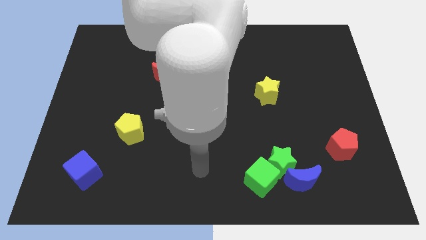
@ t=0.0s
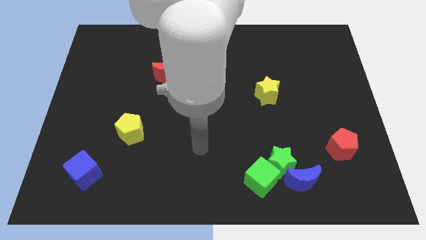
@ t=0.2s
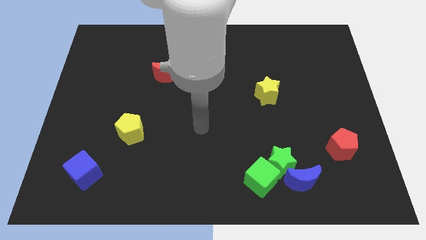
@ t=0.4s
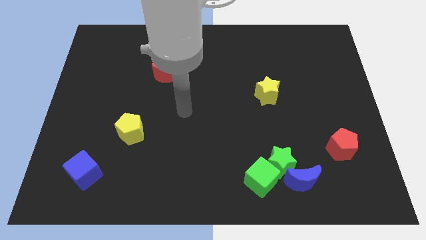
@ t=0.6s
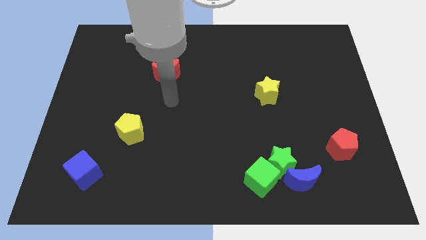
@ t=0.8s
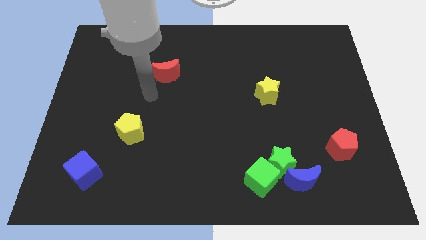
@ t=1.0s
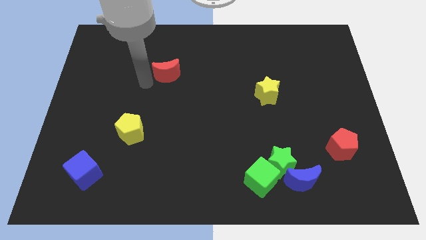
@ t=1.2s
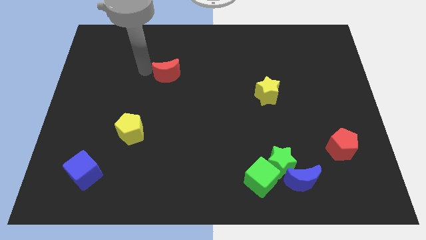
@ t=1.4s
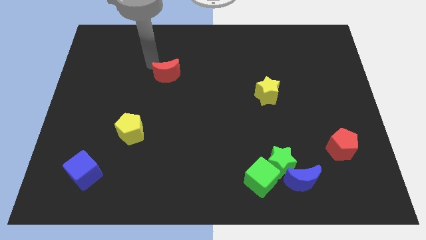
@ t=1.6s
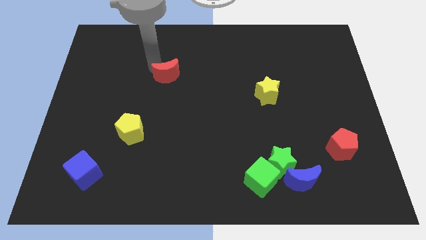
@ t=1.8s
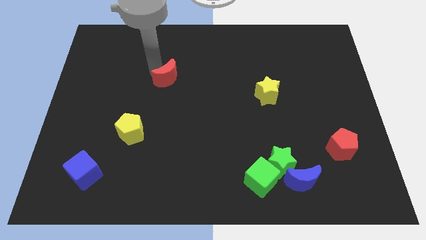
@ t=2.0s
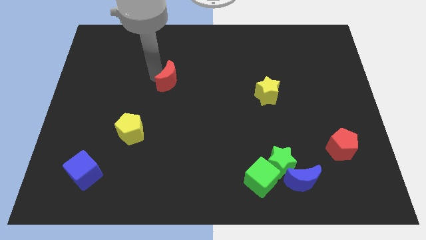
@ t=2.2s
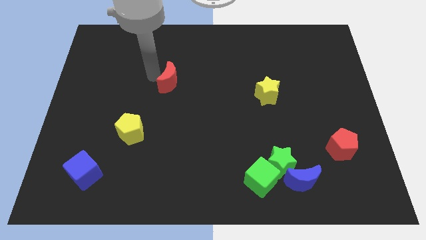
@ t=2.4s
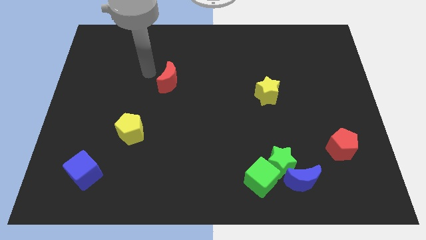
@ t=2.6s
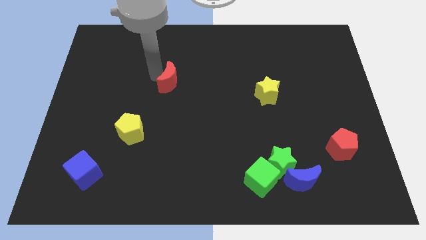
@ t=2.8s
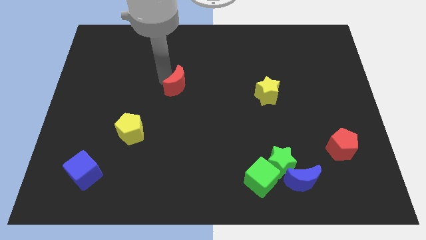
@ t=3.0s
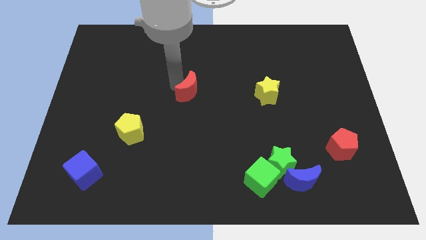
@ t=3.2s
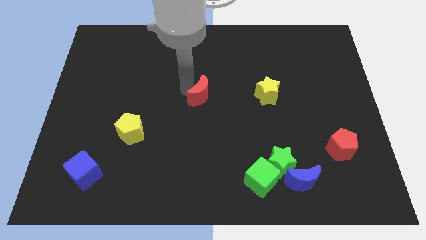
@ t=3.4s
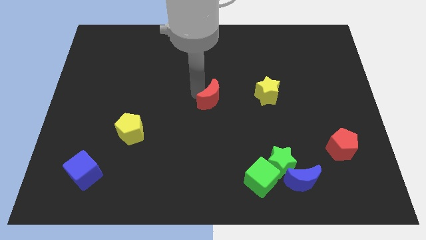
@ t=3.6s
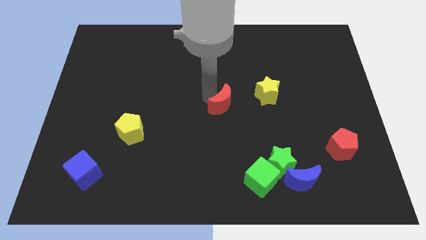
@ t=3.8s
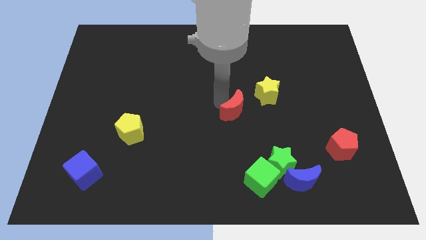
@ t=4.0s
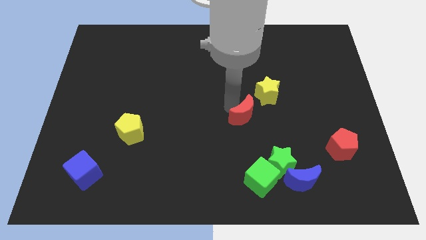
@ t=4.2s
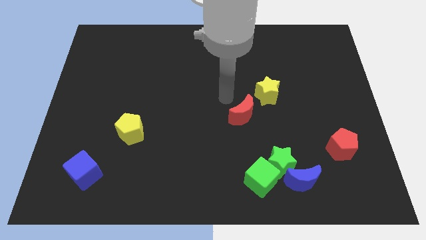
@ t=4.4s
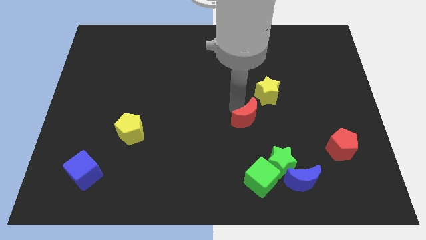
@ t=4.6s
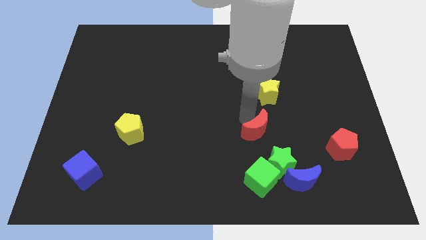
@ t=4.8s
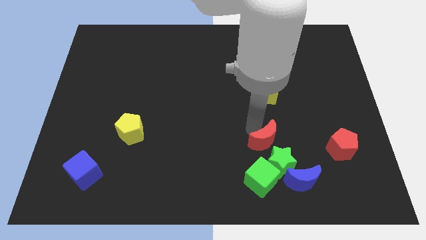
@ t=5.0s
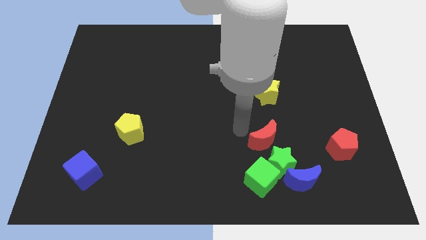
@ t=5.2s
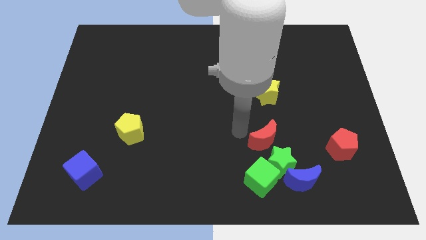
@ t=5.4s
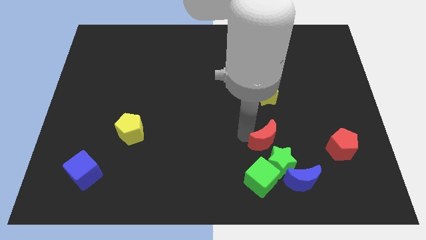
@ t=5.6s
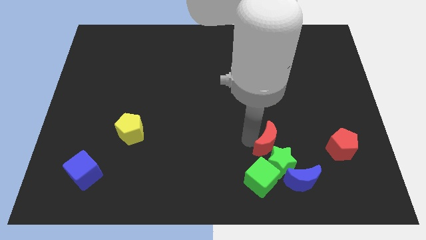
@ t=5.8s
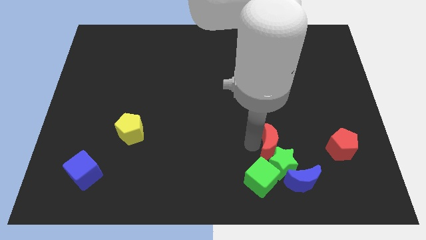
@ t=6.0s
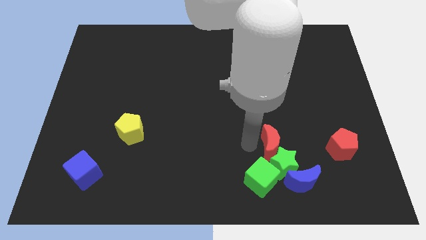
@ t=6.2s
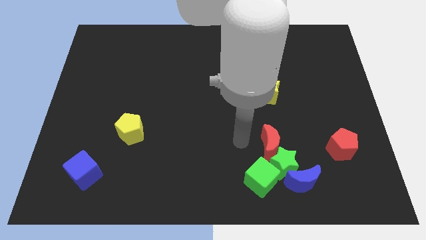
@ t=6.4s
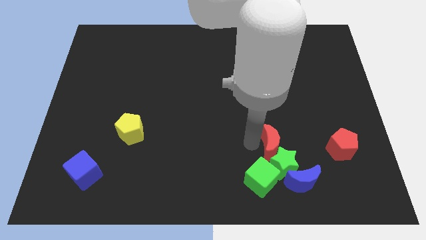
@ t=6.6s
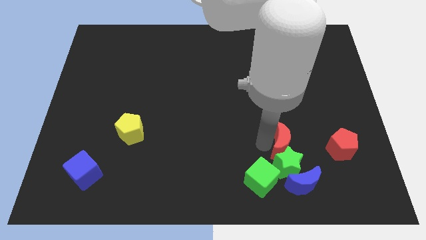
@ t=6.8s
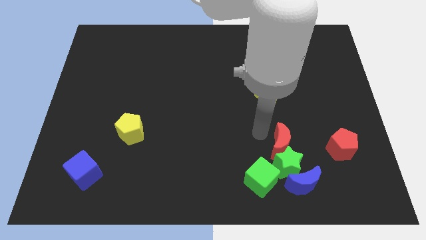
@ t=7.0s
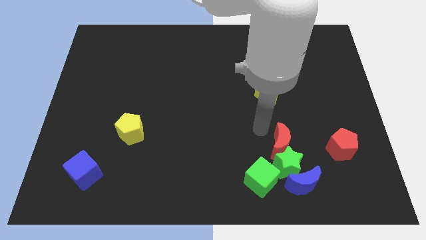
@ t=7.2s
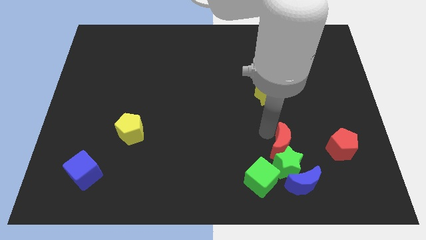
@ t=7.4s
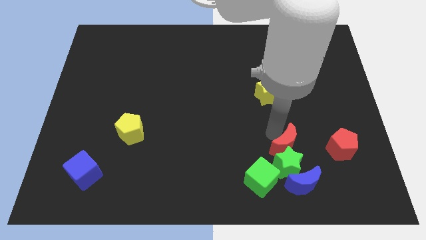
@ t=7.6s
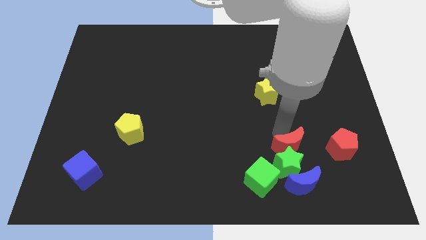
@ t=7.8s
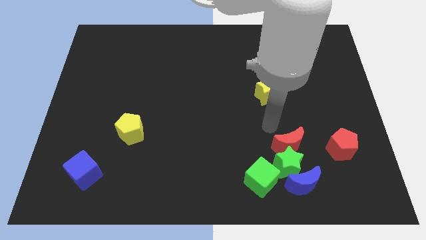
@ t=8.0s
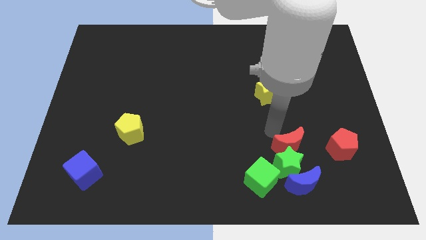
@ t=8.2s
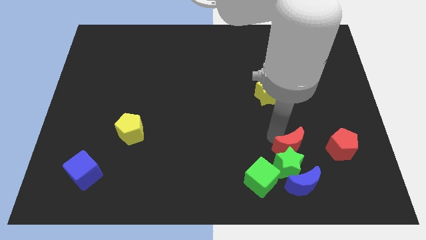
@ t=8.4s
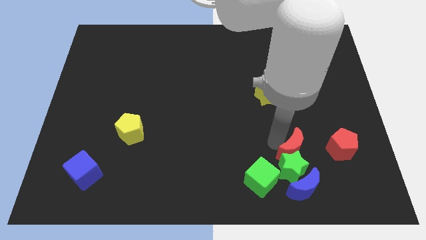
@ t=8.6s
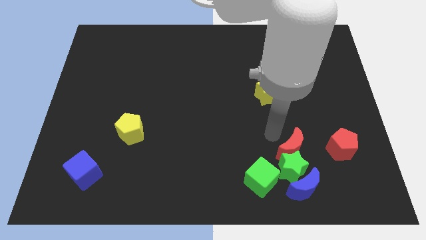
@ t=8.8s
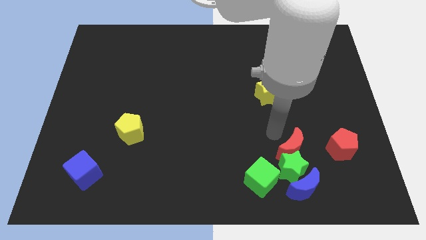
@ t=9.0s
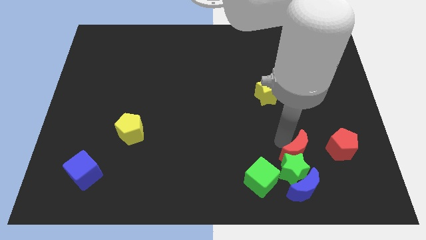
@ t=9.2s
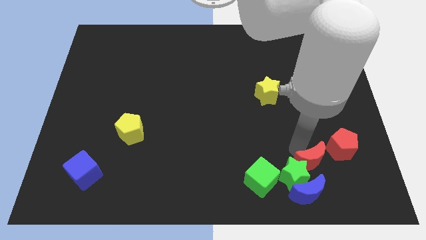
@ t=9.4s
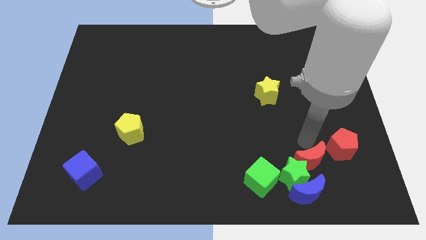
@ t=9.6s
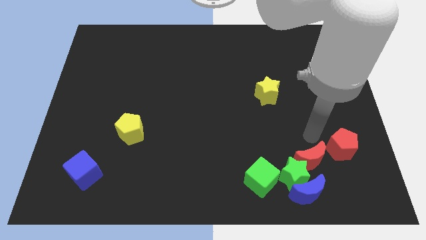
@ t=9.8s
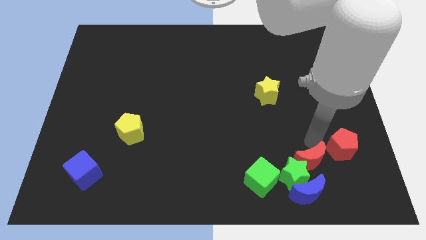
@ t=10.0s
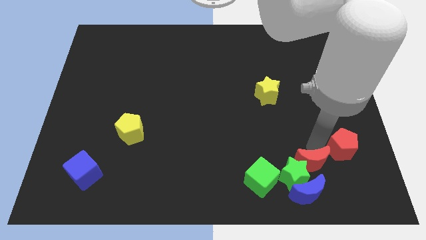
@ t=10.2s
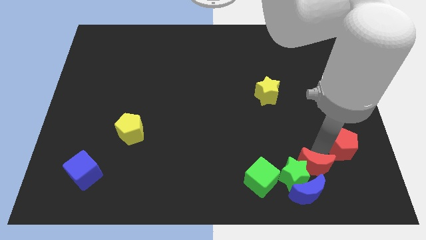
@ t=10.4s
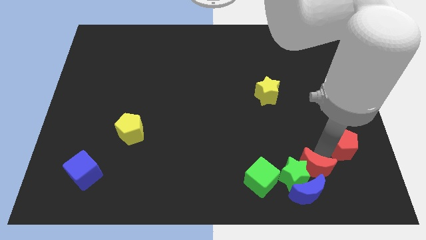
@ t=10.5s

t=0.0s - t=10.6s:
move the red moon close to the blue moon
